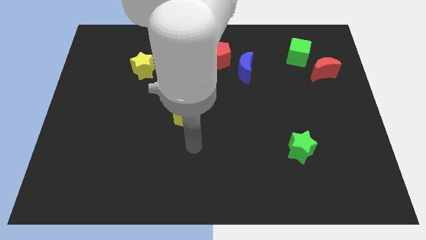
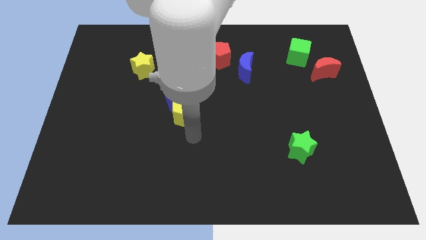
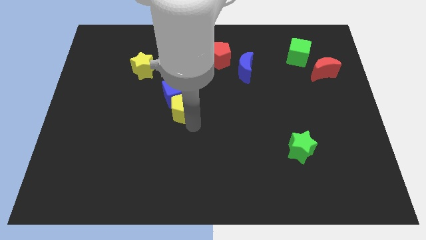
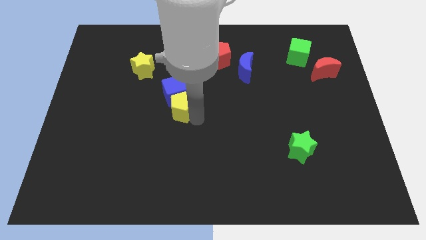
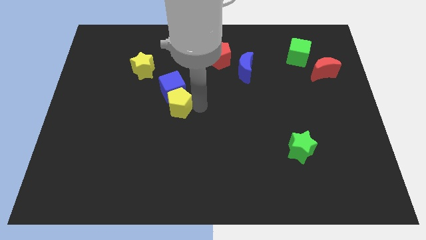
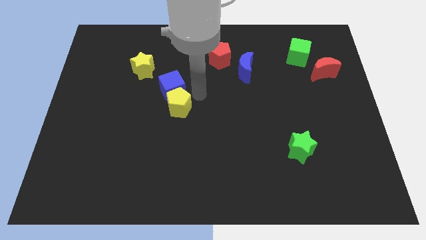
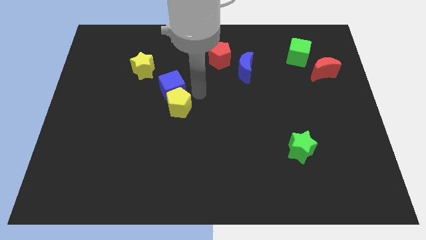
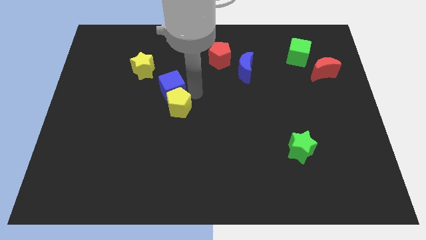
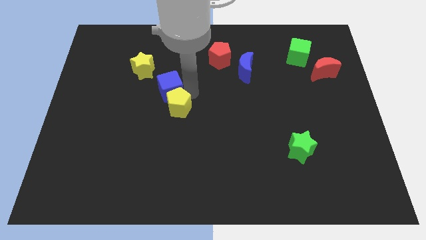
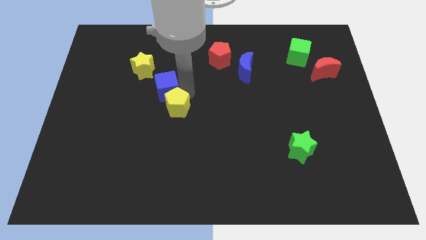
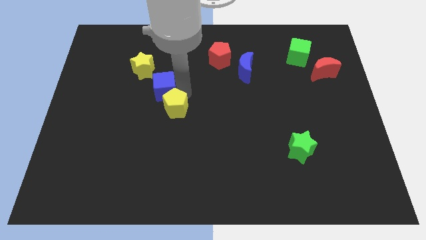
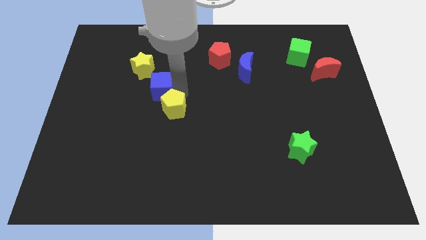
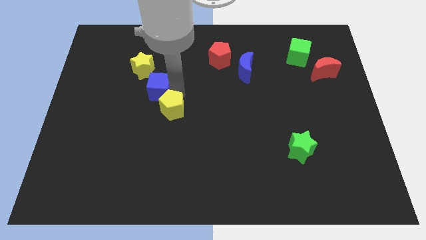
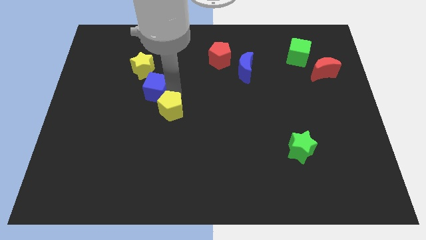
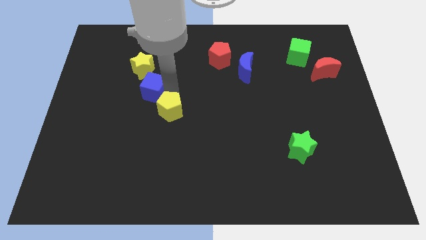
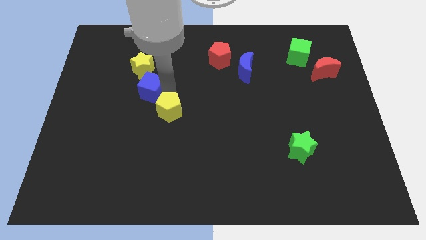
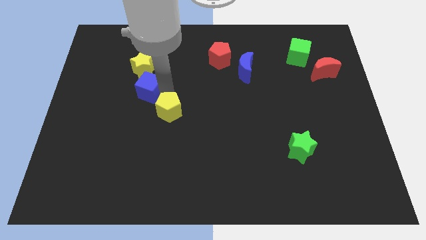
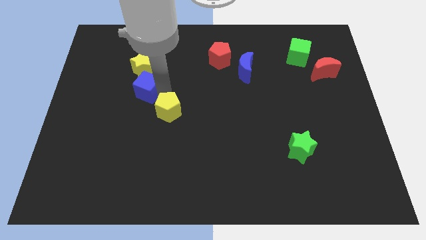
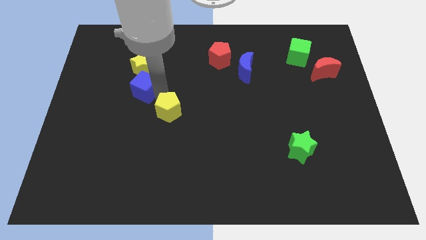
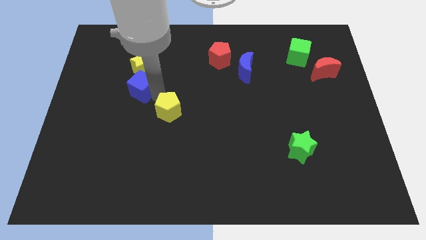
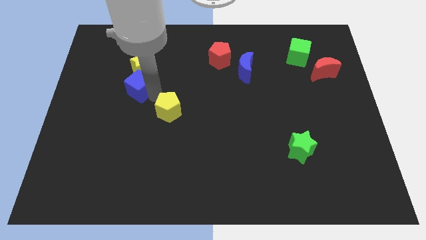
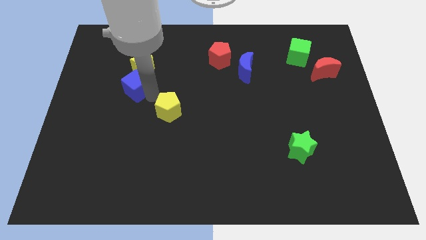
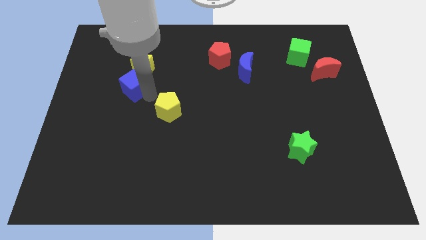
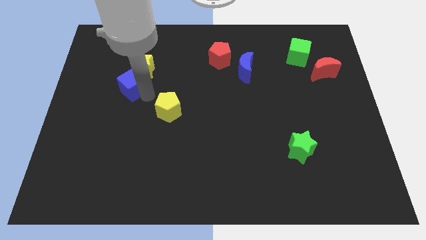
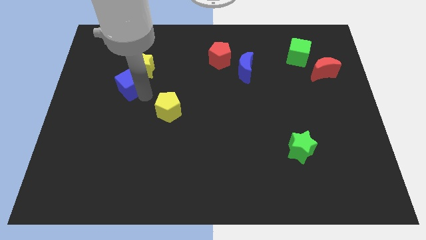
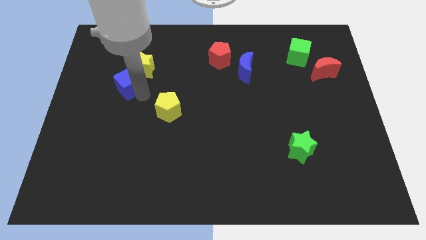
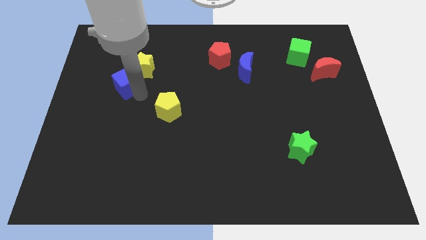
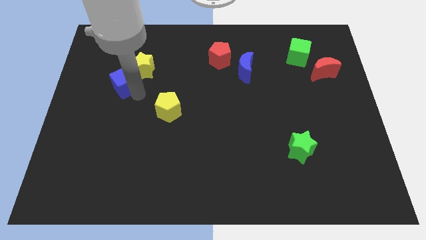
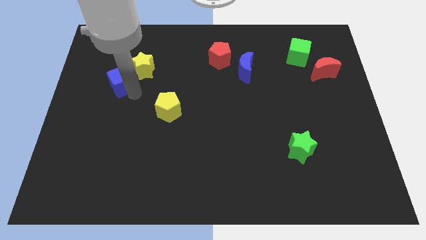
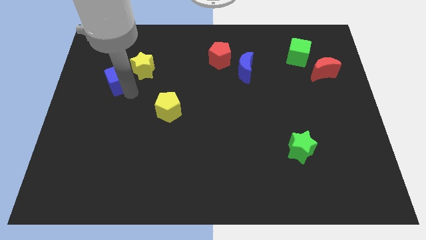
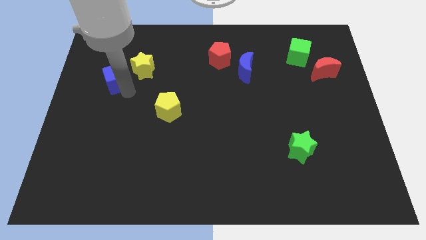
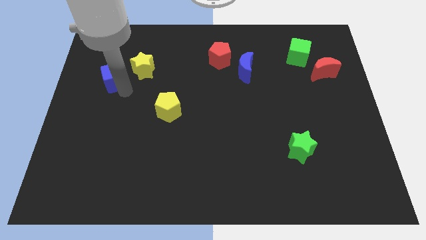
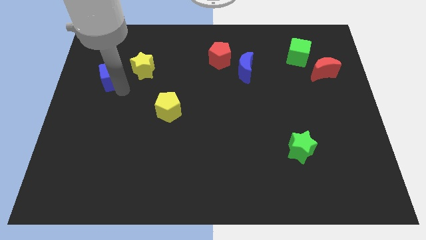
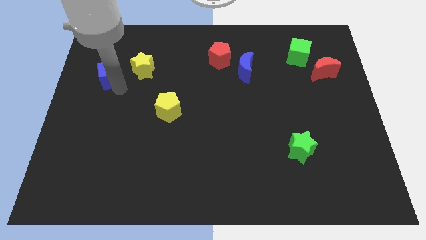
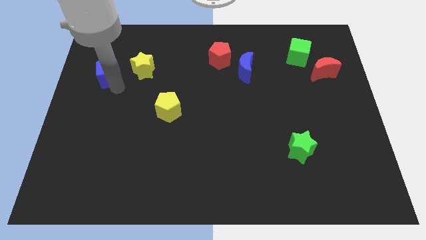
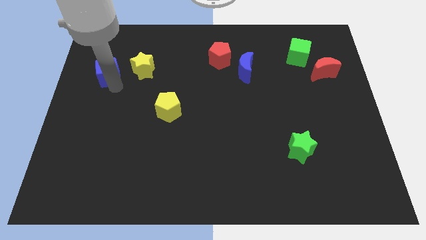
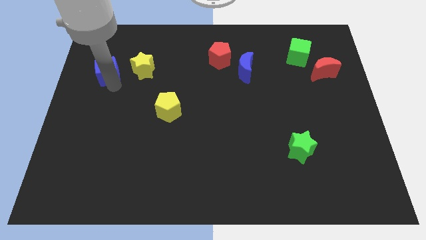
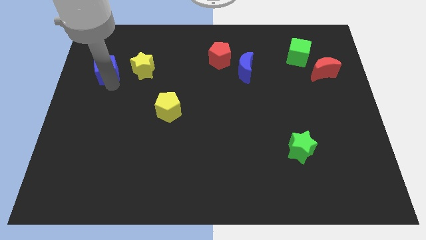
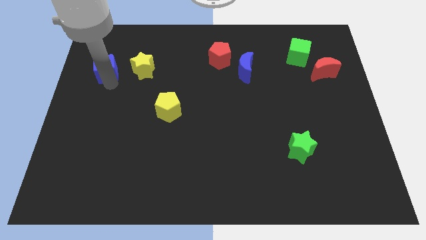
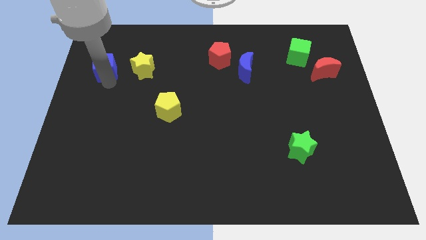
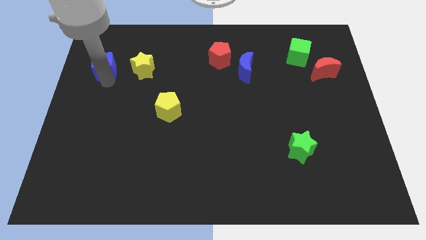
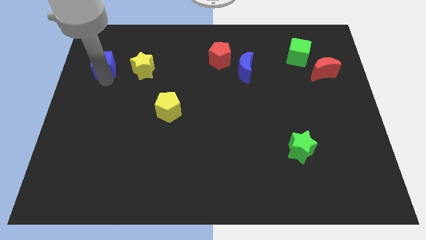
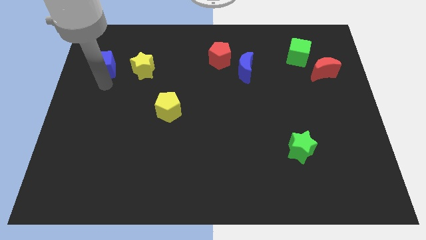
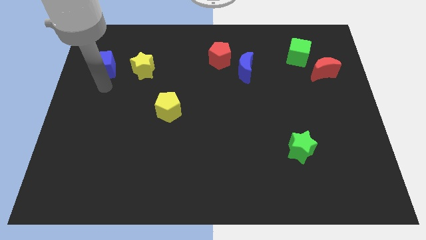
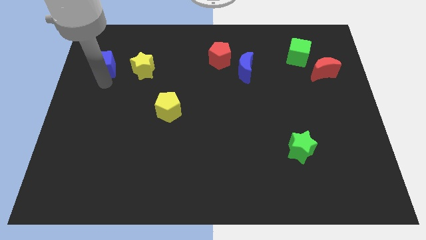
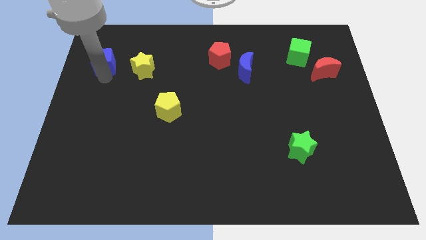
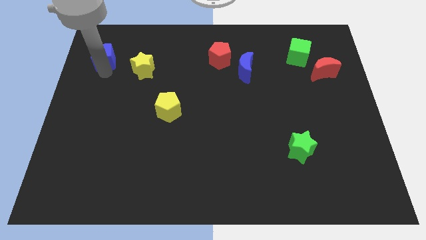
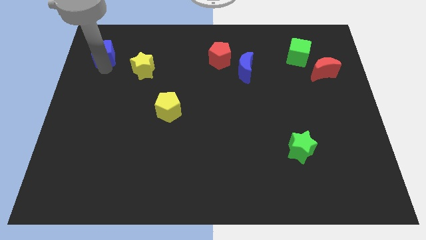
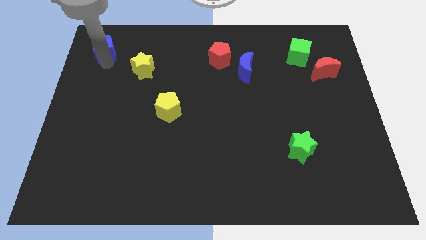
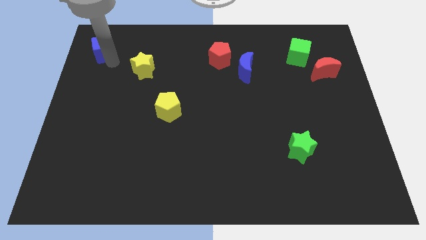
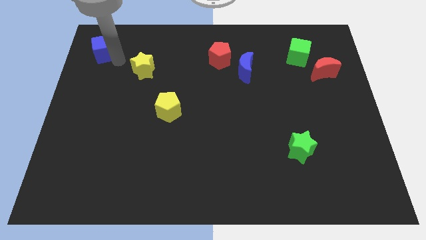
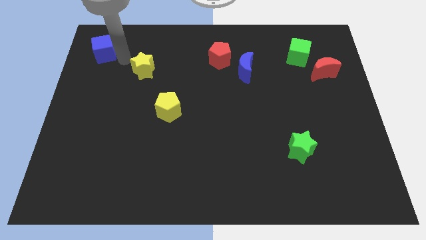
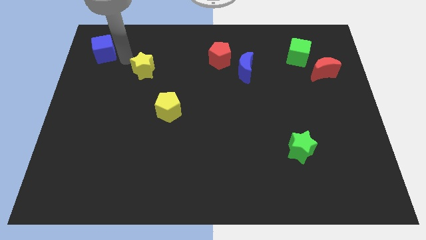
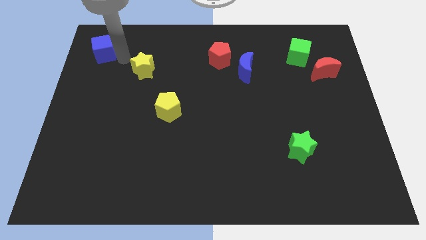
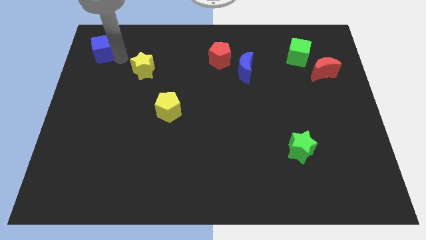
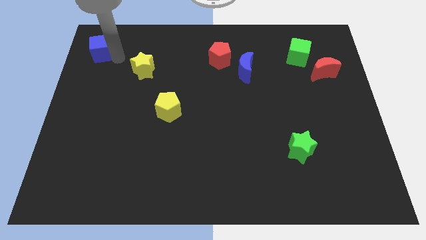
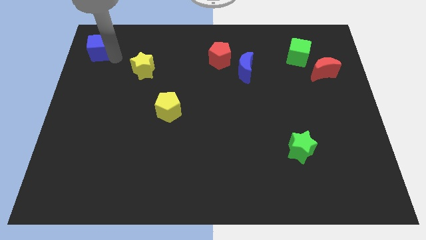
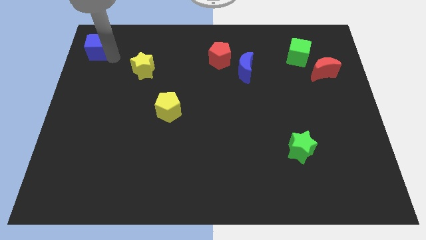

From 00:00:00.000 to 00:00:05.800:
move the blue cube to the upper left corner

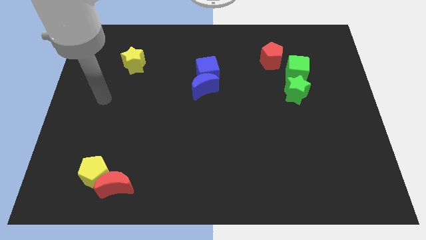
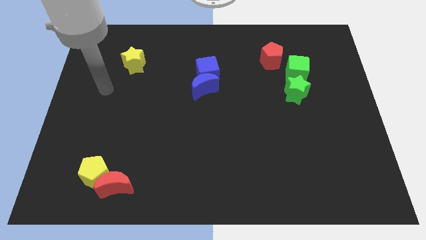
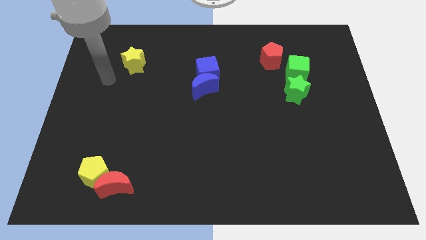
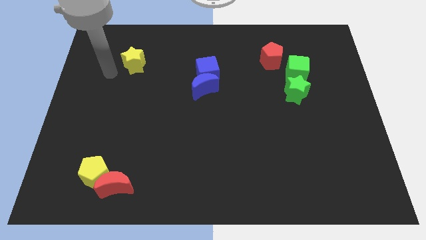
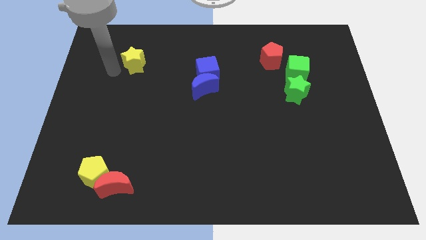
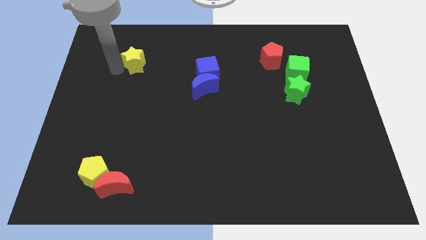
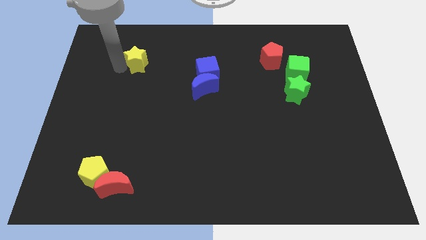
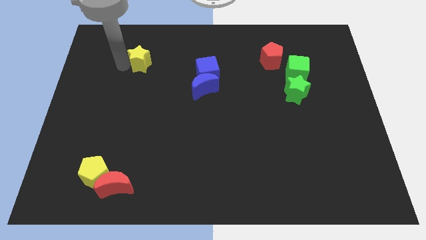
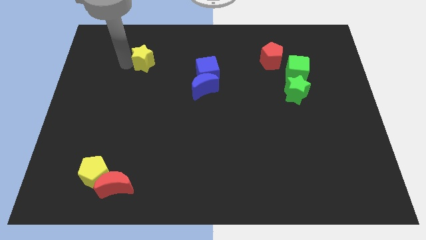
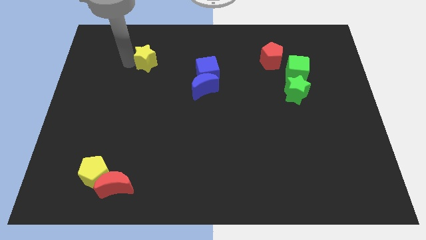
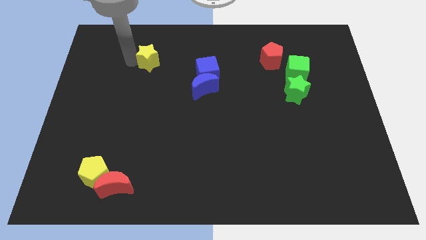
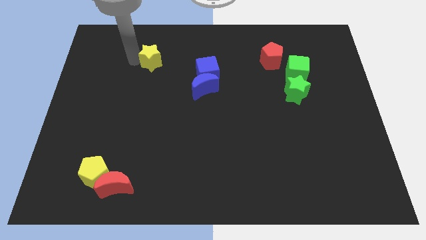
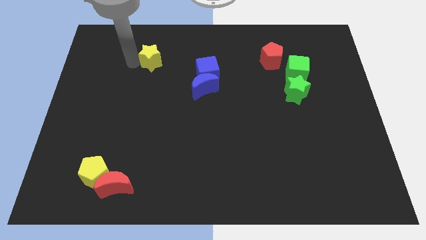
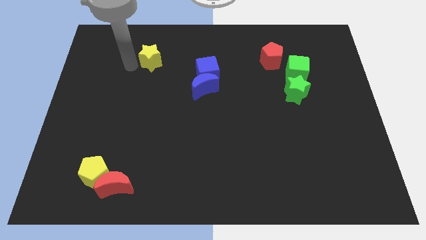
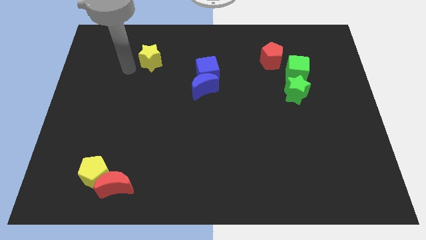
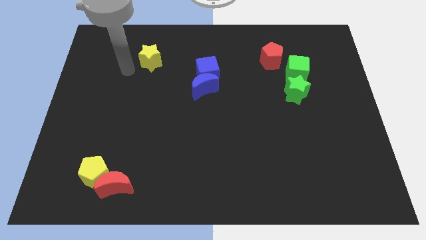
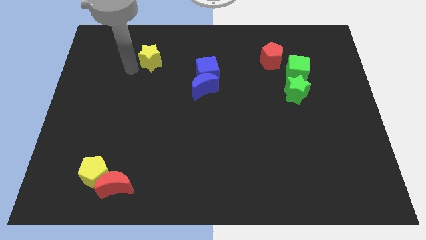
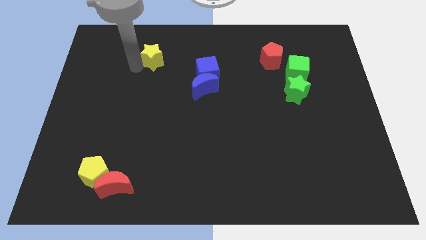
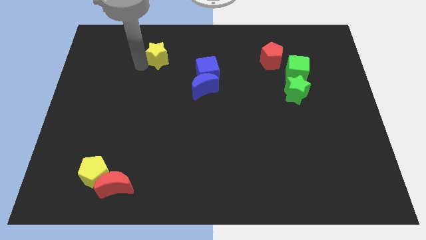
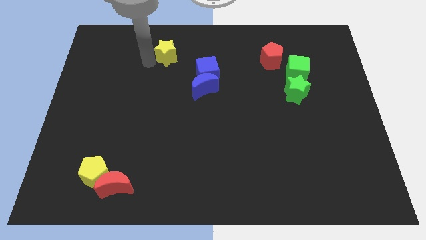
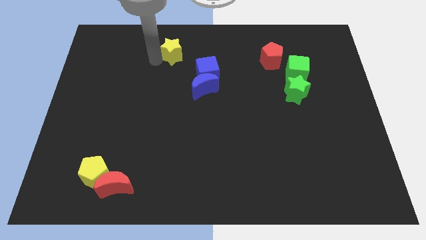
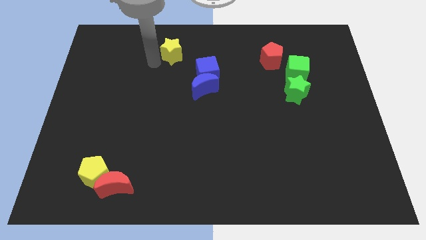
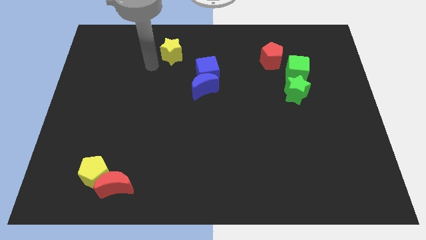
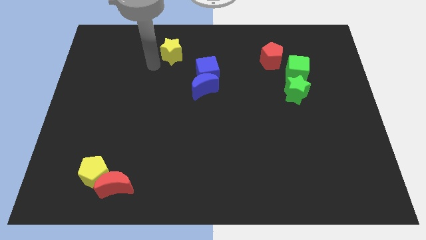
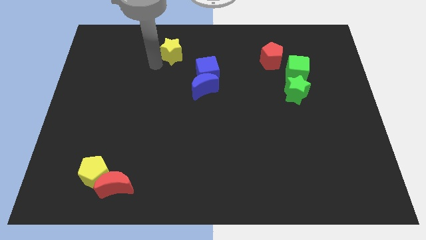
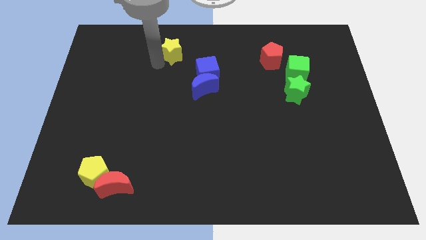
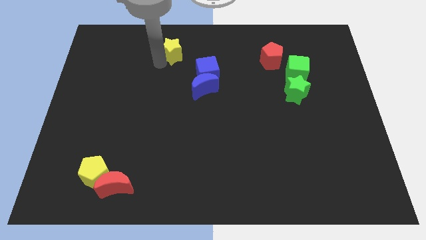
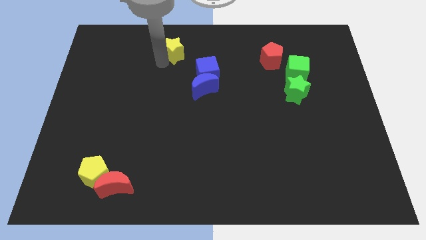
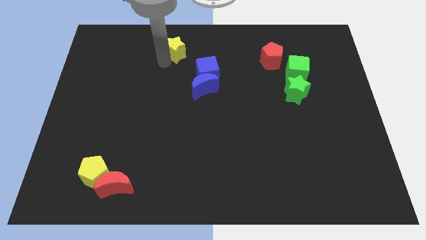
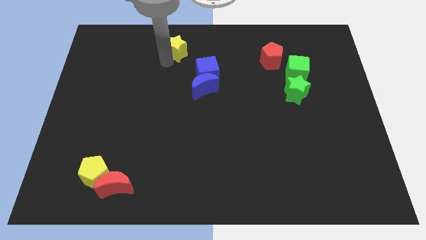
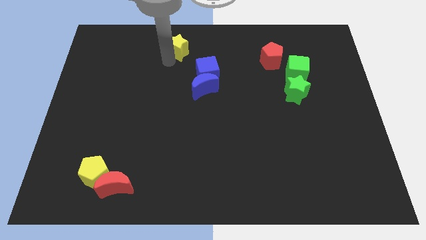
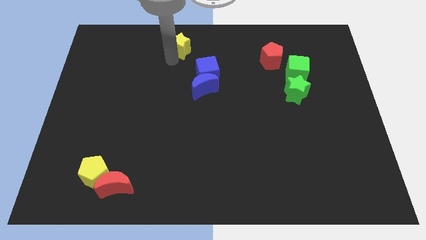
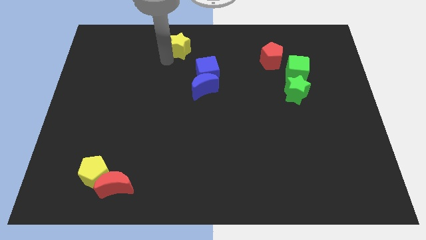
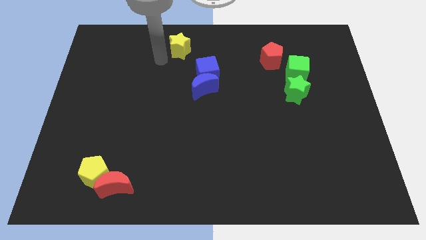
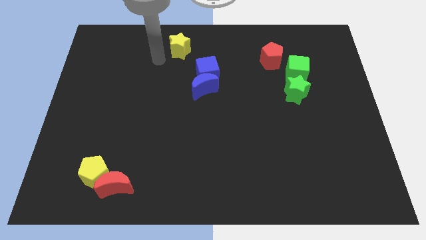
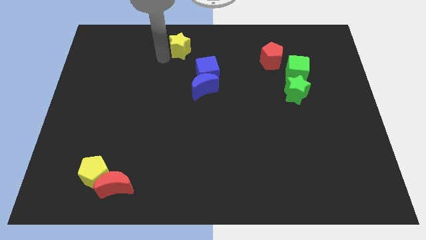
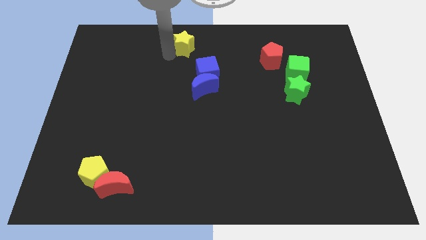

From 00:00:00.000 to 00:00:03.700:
put the yellow star to the top side
